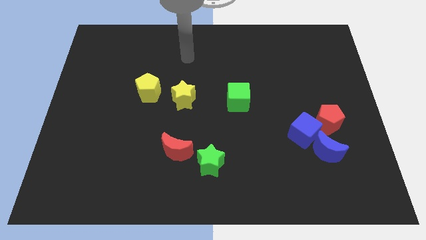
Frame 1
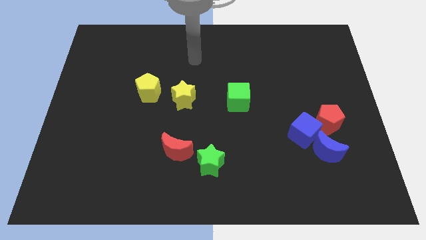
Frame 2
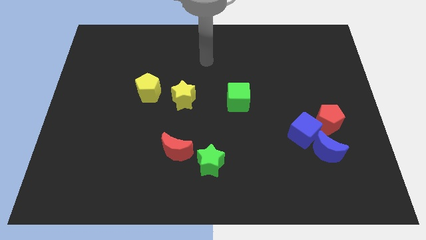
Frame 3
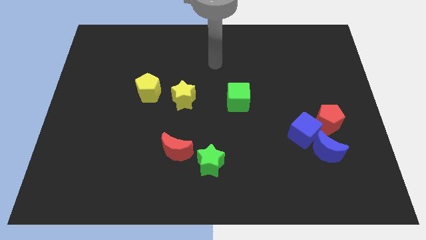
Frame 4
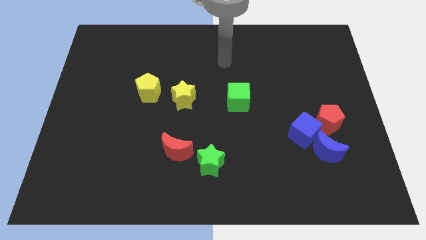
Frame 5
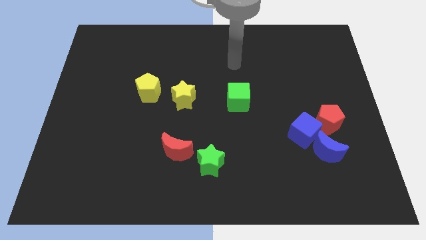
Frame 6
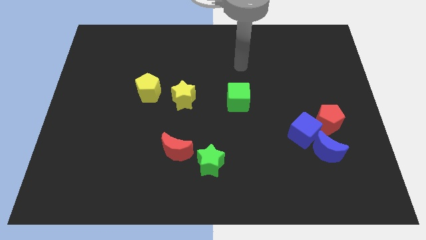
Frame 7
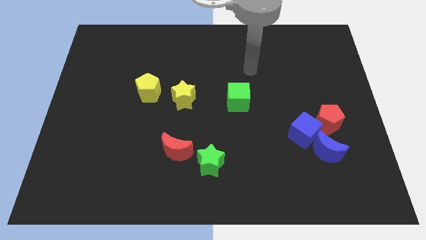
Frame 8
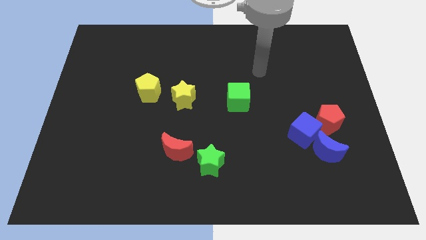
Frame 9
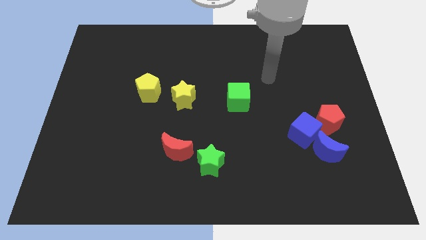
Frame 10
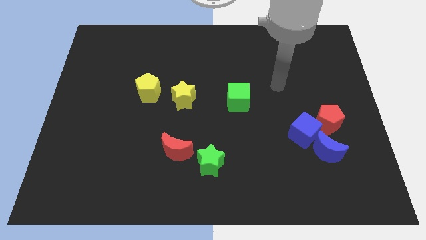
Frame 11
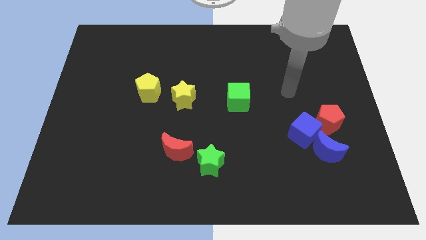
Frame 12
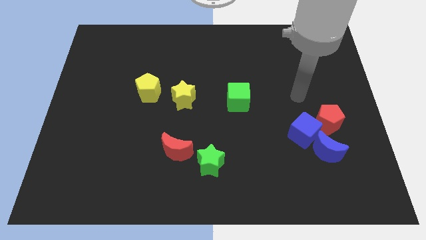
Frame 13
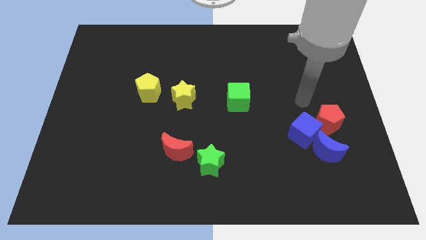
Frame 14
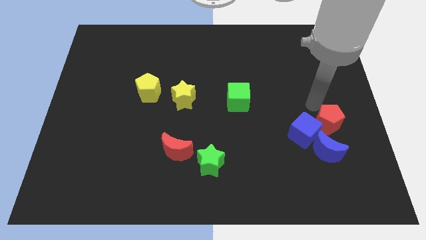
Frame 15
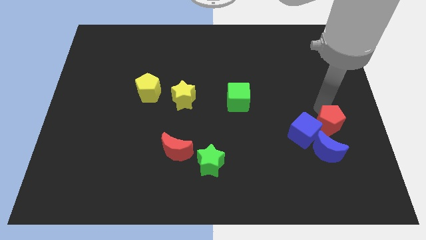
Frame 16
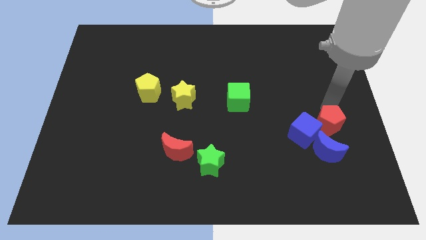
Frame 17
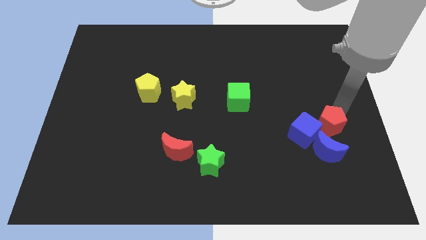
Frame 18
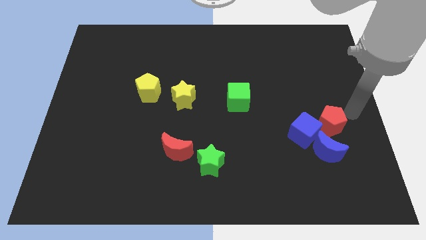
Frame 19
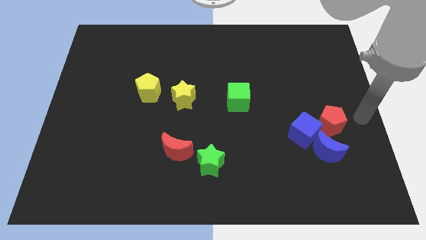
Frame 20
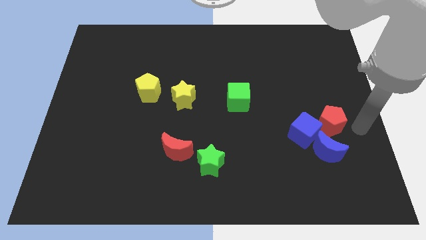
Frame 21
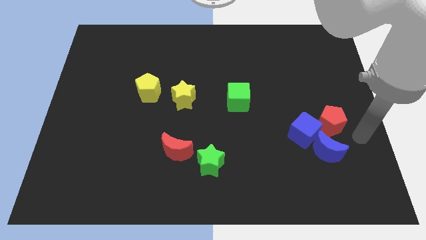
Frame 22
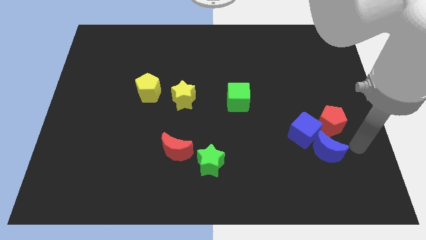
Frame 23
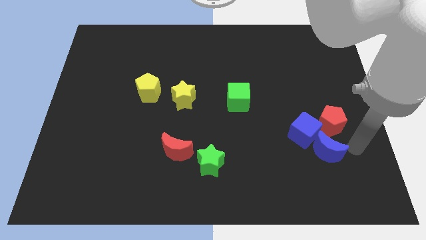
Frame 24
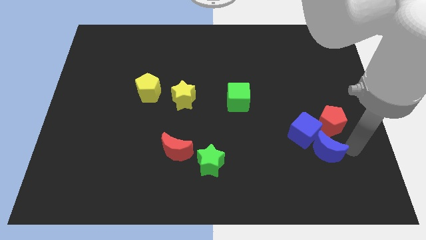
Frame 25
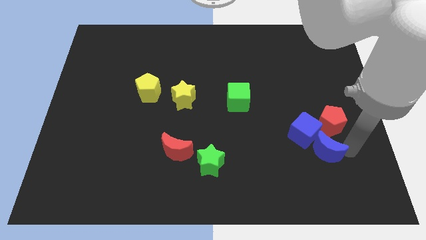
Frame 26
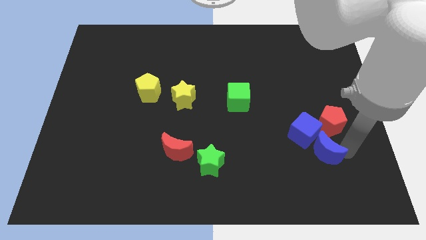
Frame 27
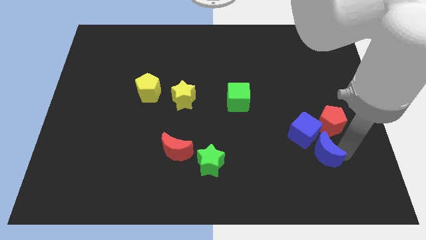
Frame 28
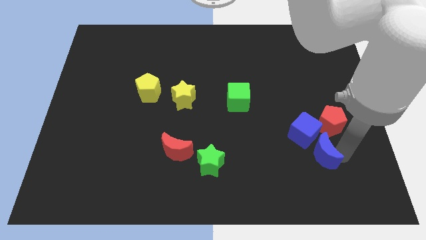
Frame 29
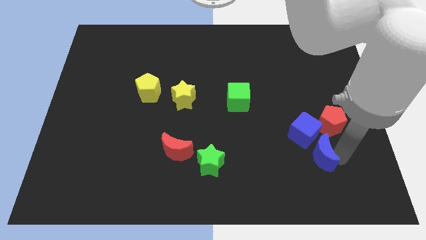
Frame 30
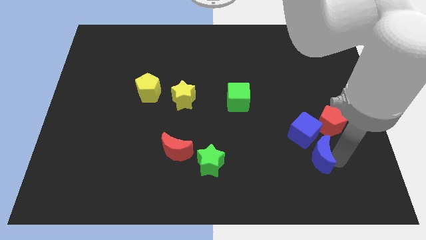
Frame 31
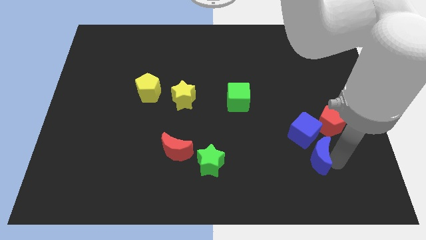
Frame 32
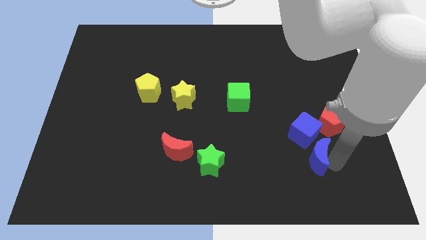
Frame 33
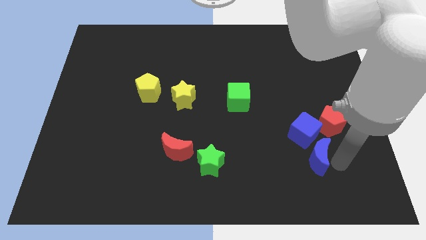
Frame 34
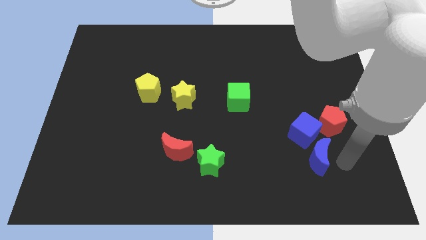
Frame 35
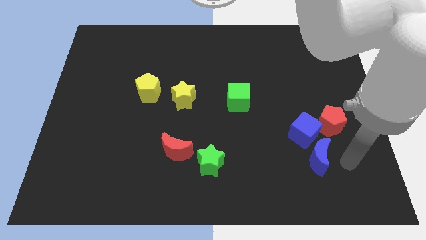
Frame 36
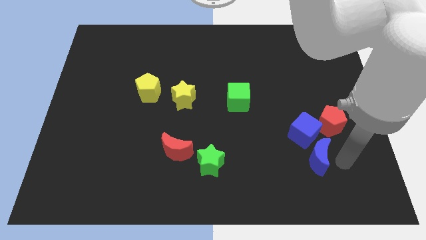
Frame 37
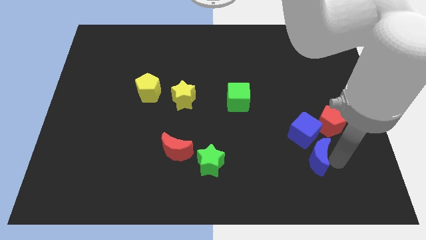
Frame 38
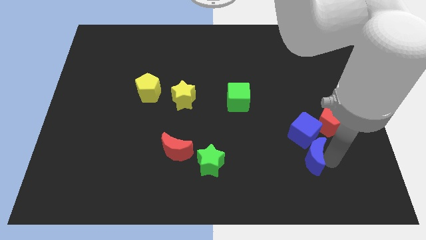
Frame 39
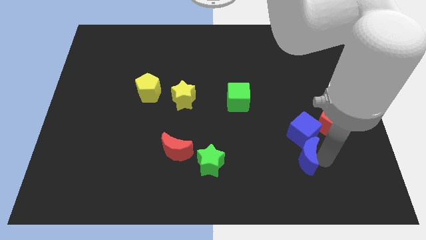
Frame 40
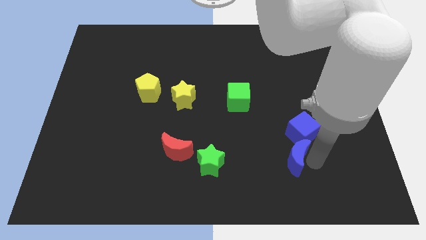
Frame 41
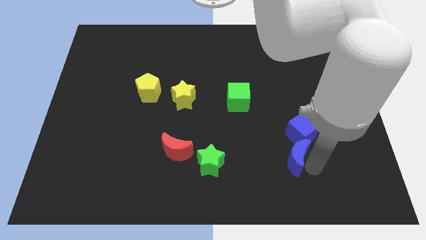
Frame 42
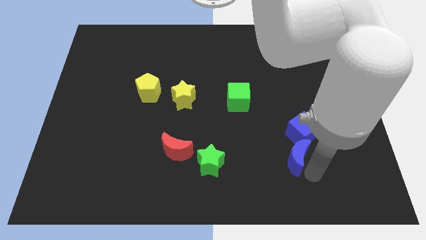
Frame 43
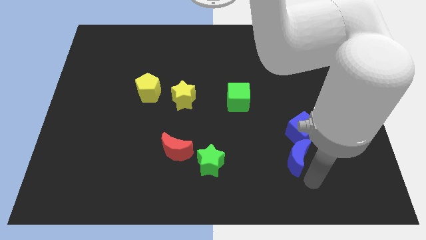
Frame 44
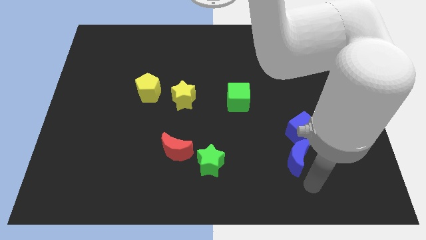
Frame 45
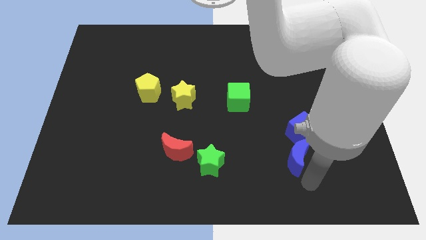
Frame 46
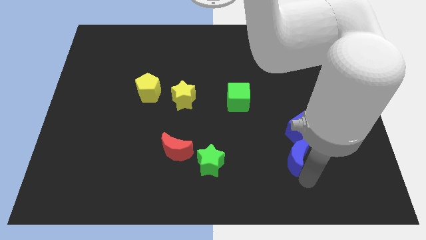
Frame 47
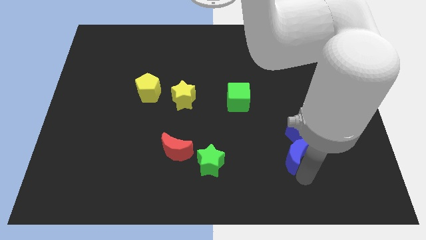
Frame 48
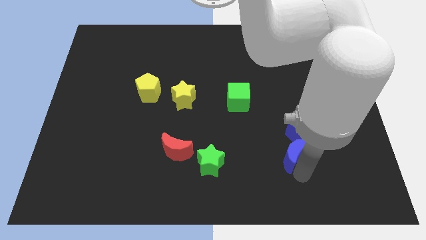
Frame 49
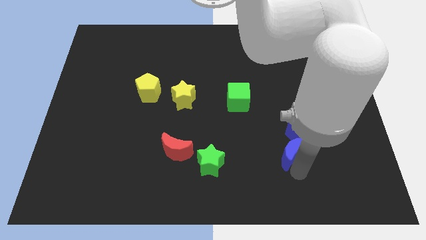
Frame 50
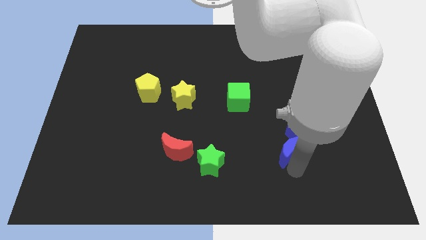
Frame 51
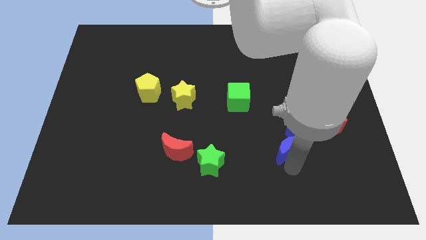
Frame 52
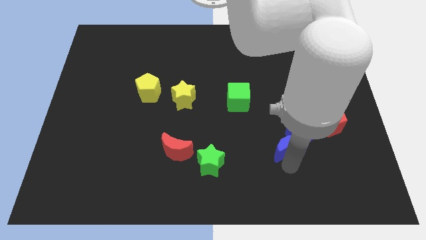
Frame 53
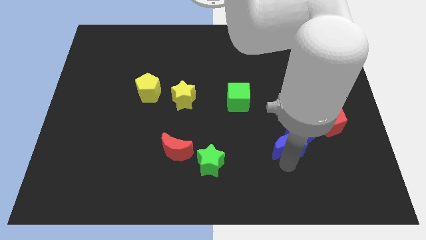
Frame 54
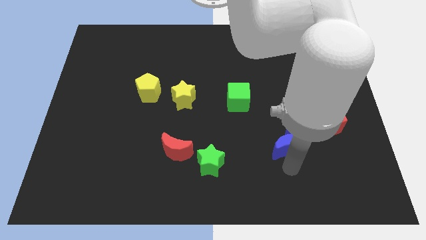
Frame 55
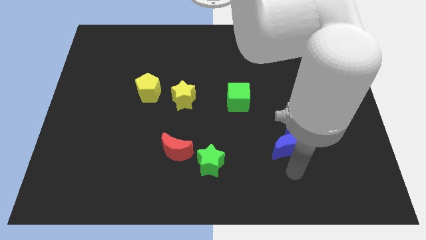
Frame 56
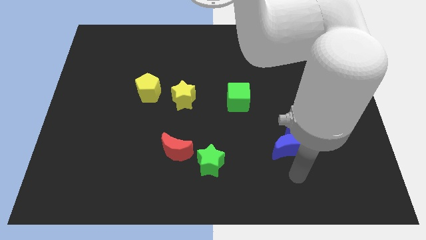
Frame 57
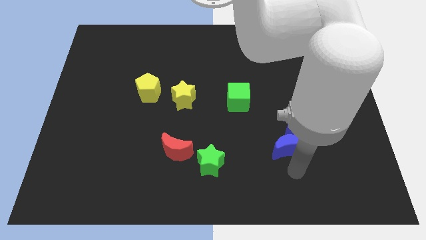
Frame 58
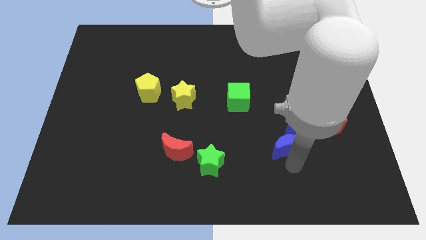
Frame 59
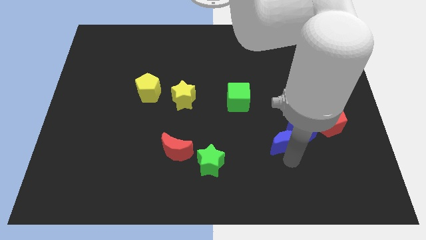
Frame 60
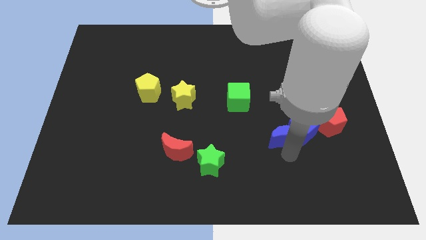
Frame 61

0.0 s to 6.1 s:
slightly push the blue moon diagonally up and to the left

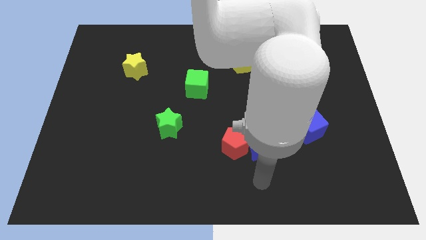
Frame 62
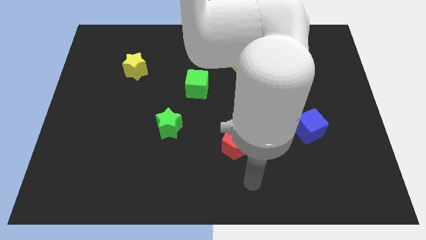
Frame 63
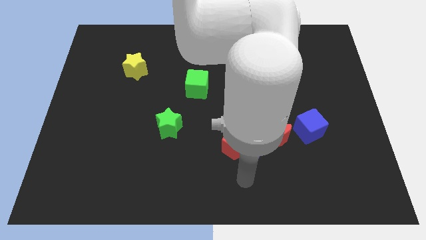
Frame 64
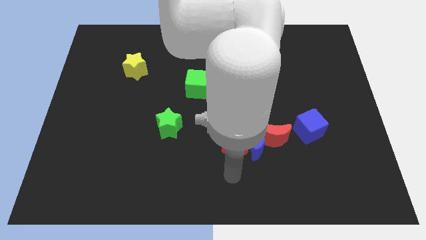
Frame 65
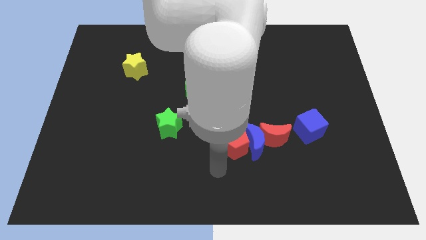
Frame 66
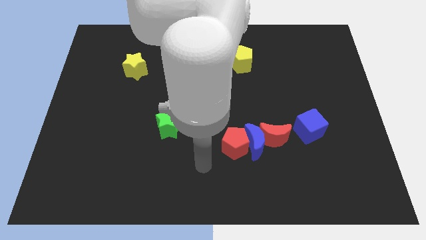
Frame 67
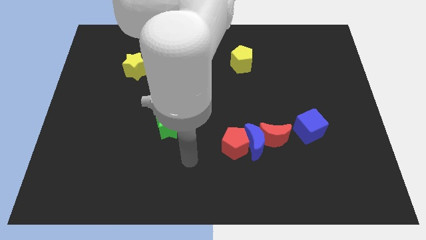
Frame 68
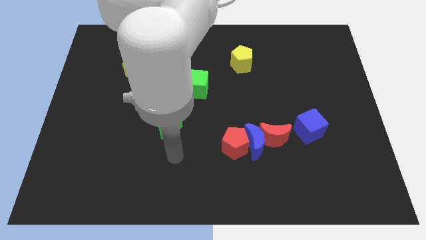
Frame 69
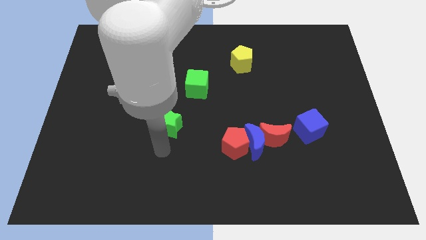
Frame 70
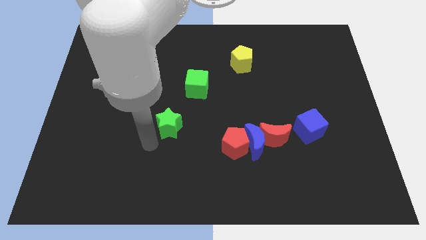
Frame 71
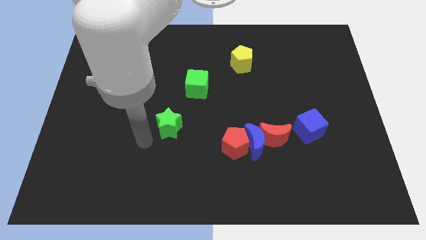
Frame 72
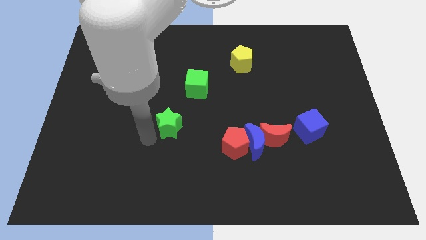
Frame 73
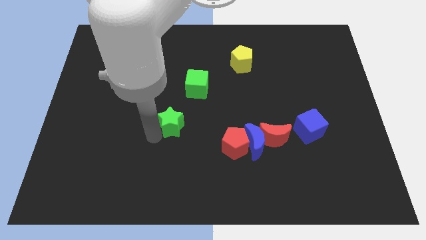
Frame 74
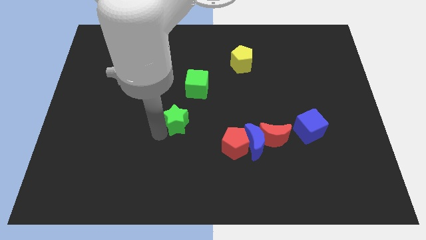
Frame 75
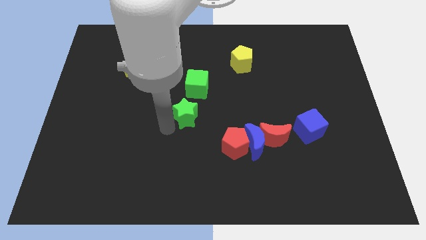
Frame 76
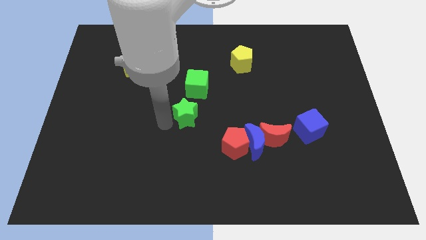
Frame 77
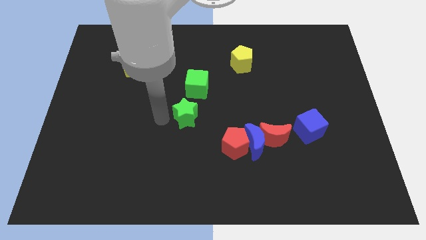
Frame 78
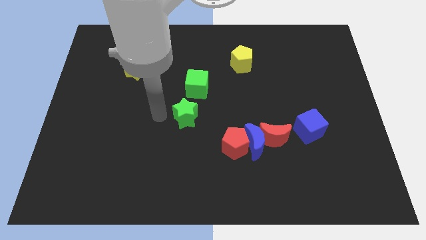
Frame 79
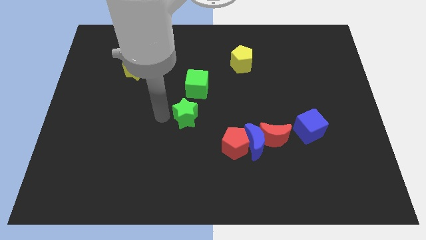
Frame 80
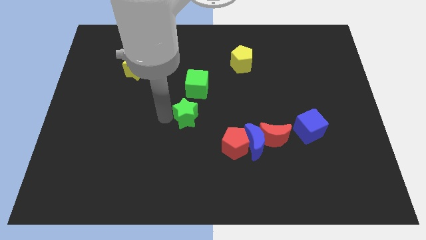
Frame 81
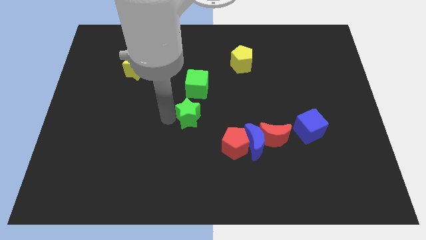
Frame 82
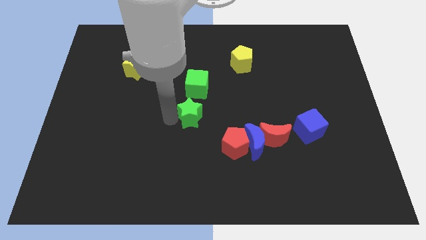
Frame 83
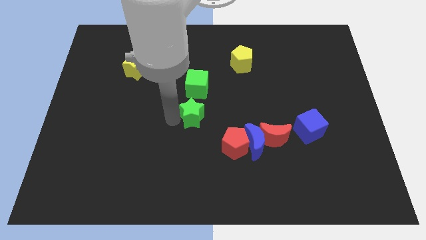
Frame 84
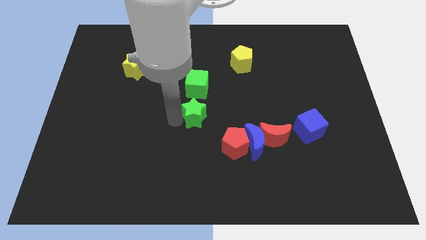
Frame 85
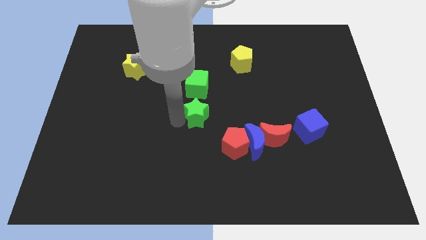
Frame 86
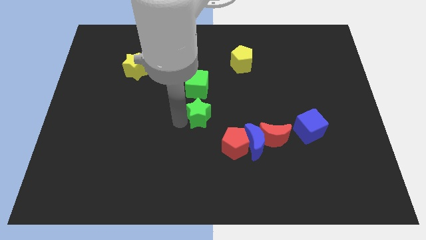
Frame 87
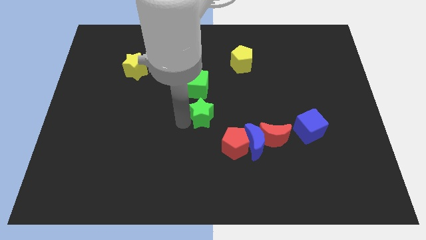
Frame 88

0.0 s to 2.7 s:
push the green star somewhat right
